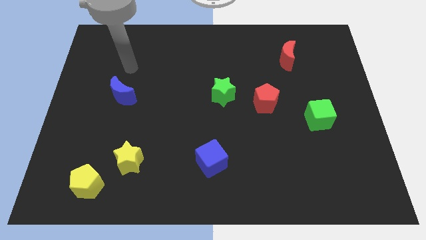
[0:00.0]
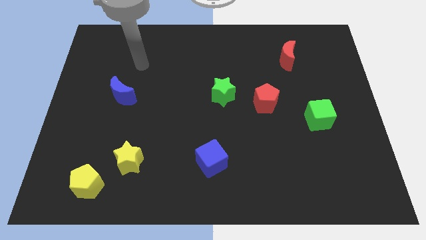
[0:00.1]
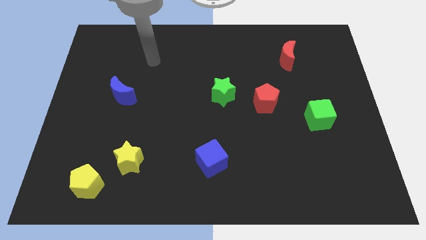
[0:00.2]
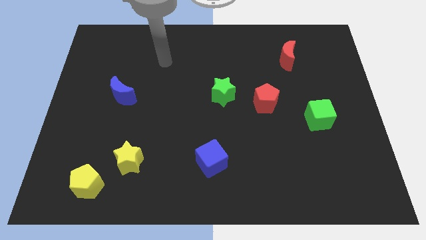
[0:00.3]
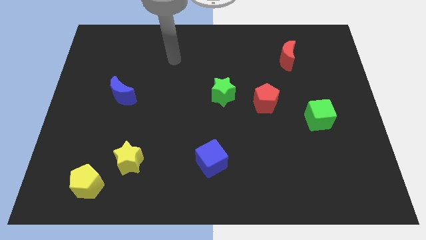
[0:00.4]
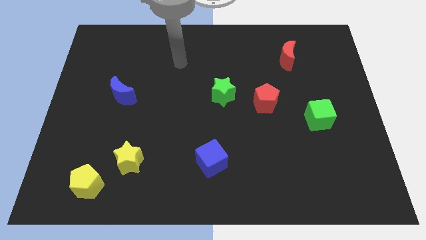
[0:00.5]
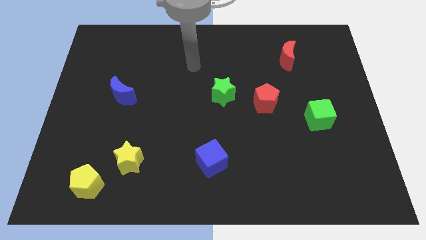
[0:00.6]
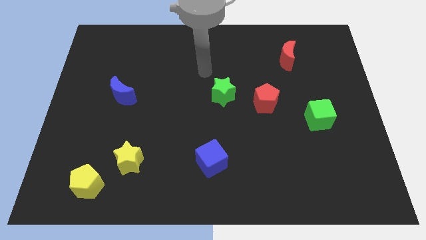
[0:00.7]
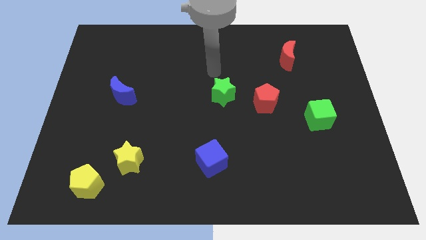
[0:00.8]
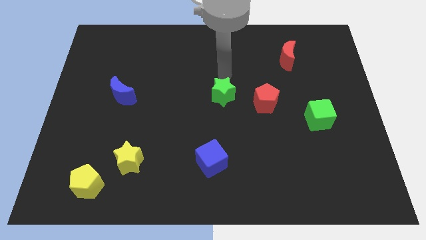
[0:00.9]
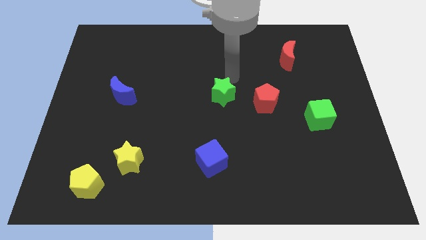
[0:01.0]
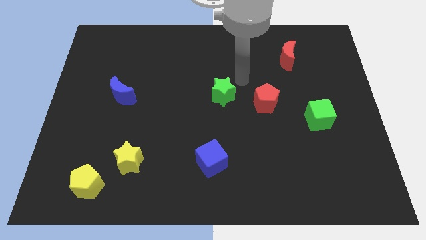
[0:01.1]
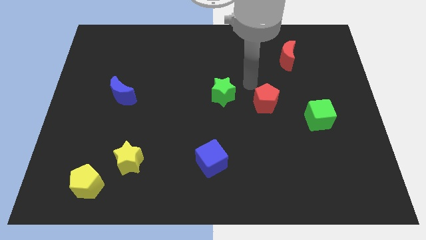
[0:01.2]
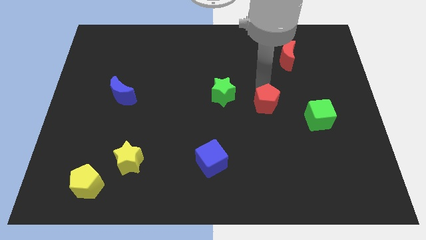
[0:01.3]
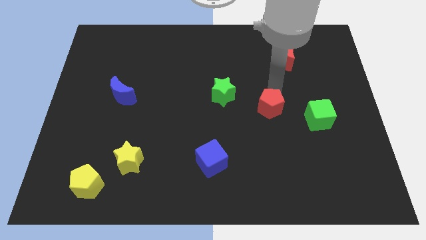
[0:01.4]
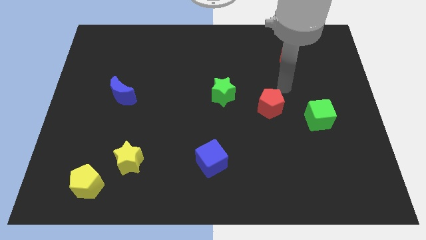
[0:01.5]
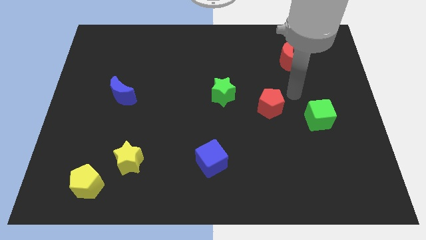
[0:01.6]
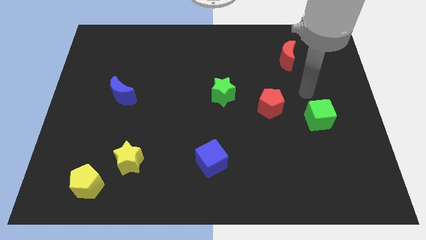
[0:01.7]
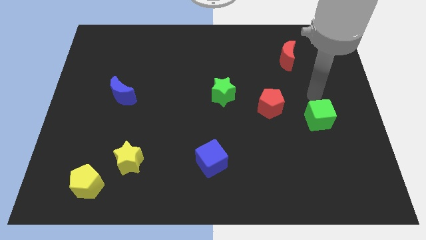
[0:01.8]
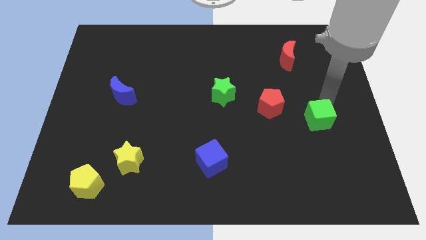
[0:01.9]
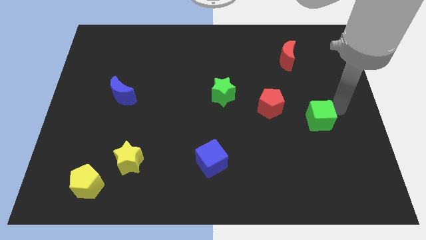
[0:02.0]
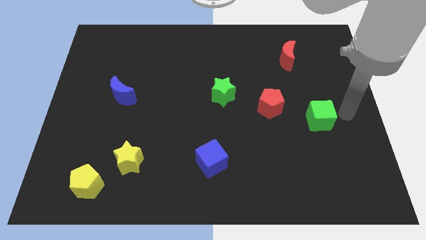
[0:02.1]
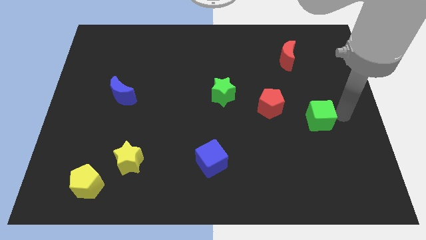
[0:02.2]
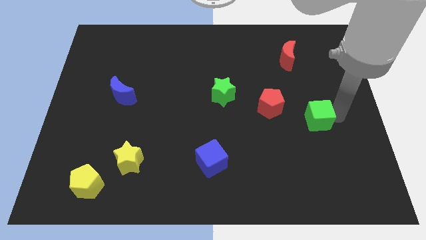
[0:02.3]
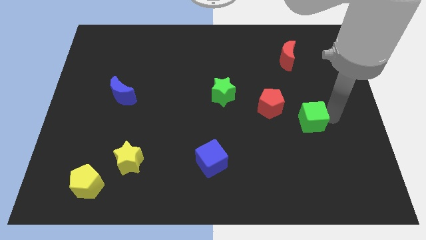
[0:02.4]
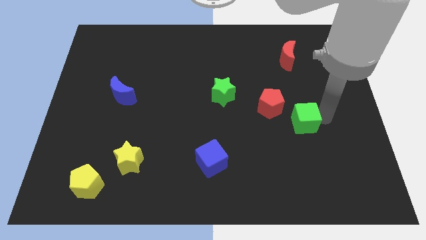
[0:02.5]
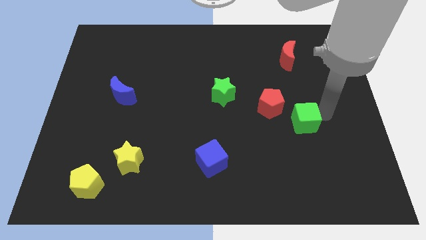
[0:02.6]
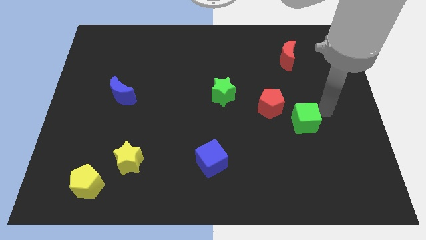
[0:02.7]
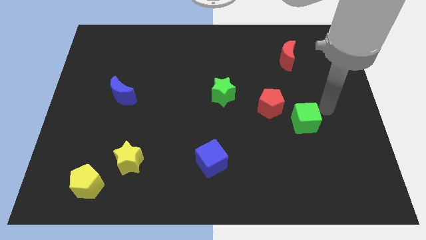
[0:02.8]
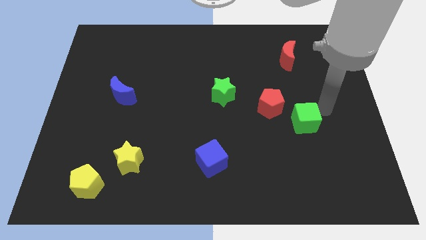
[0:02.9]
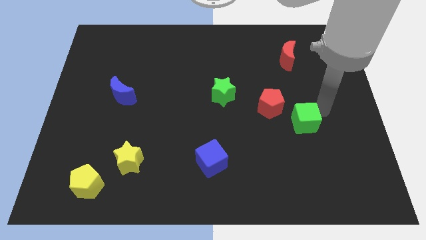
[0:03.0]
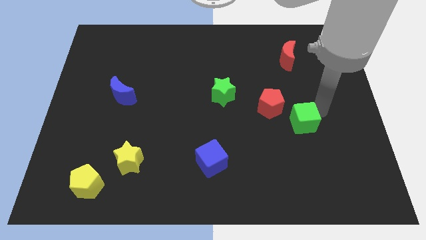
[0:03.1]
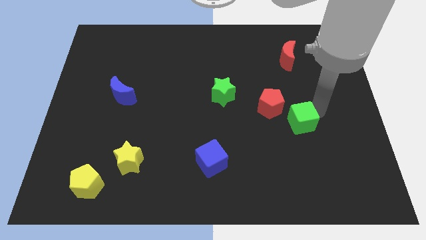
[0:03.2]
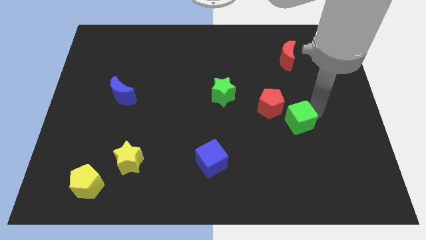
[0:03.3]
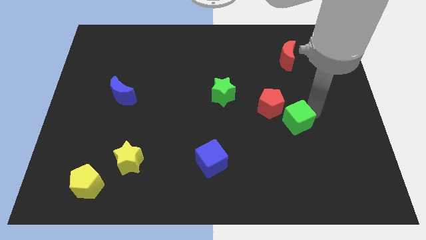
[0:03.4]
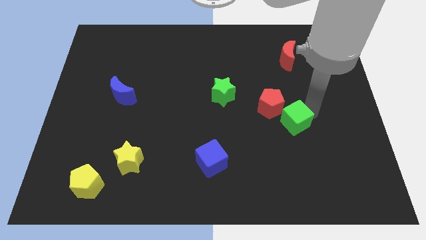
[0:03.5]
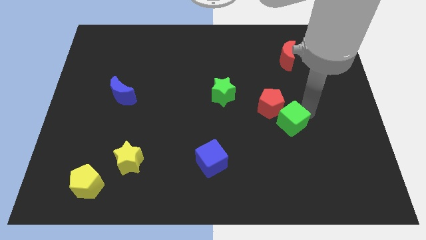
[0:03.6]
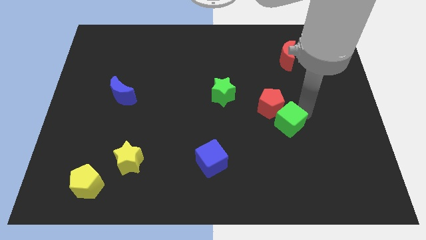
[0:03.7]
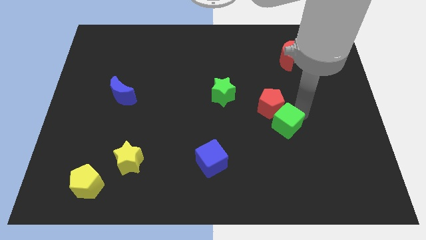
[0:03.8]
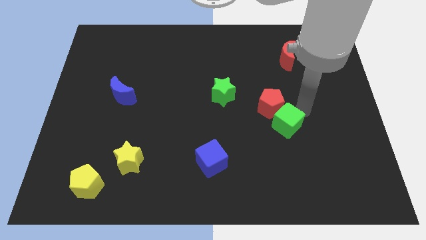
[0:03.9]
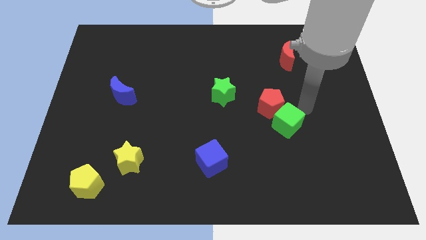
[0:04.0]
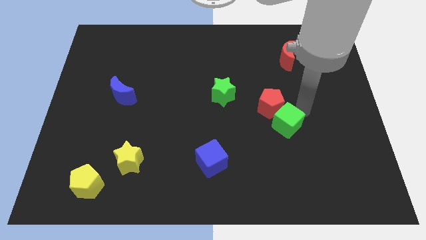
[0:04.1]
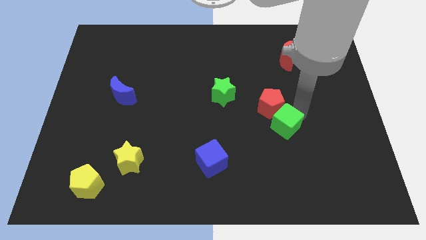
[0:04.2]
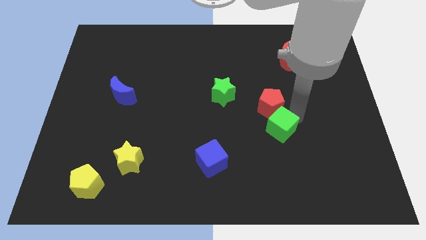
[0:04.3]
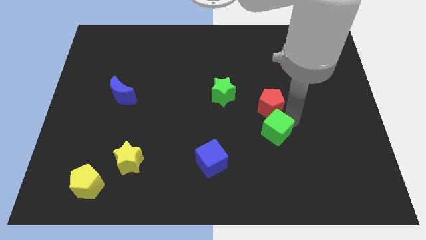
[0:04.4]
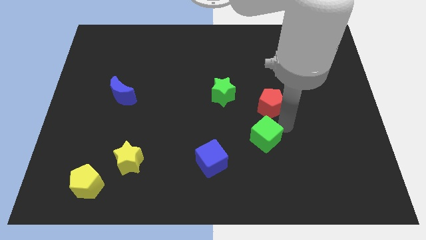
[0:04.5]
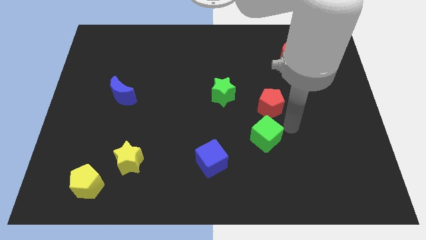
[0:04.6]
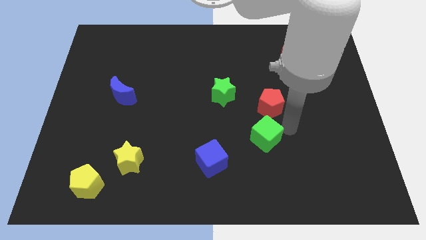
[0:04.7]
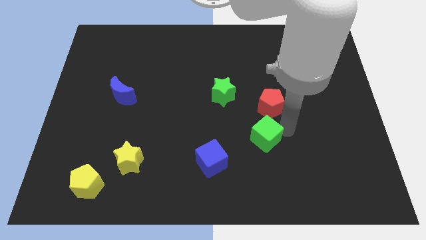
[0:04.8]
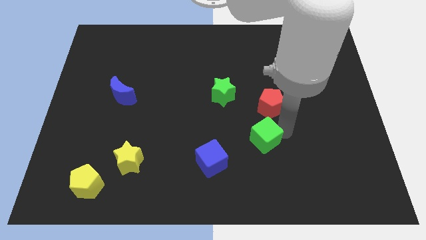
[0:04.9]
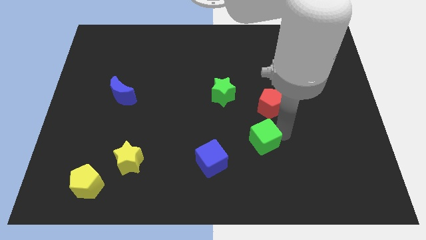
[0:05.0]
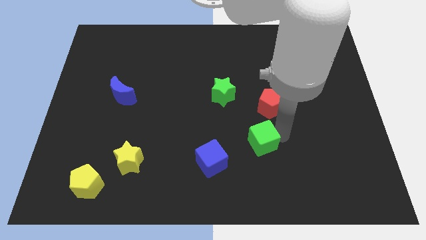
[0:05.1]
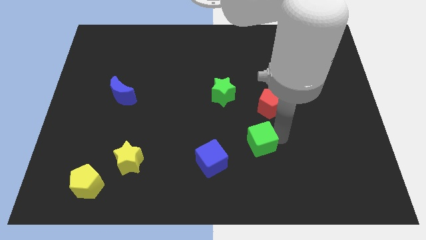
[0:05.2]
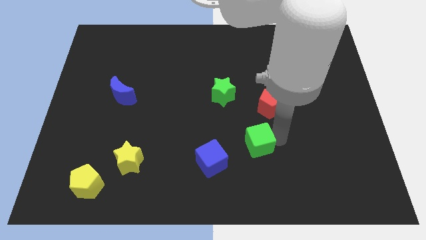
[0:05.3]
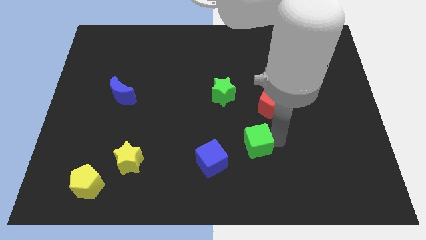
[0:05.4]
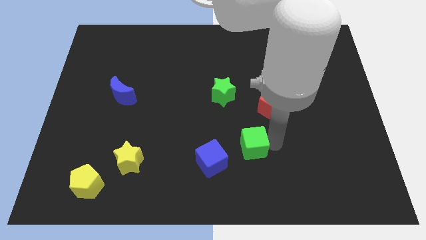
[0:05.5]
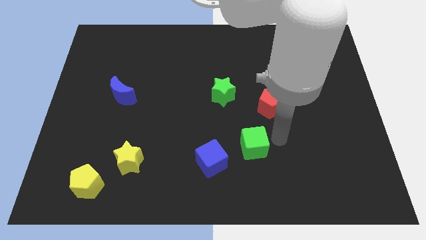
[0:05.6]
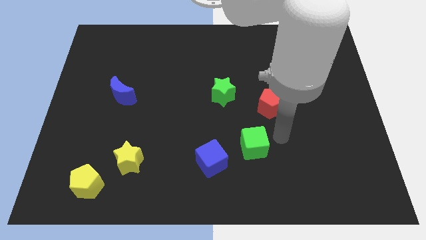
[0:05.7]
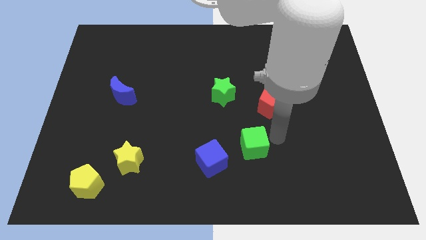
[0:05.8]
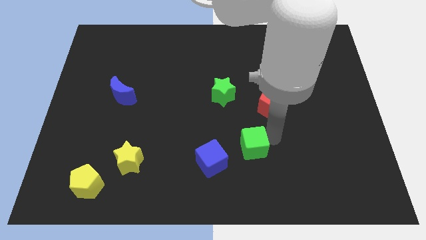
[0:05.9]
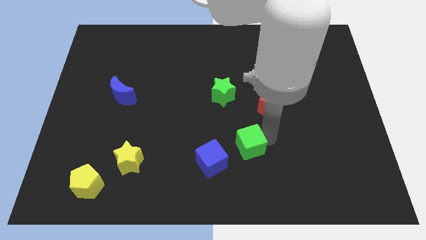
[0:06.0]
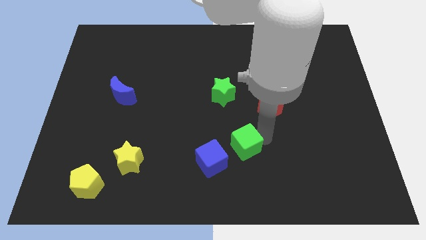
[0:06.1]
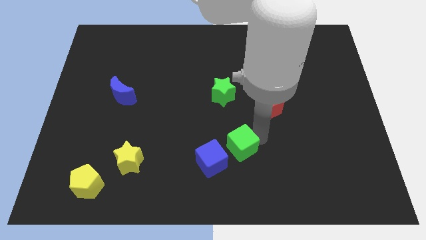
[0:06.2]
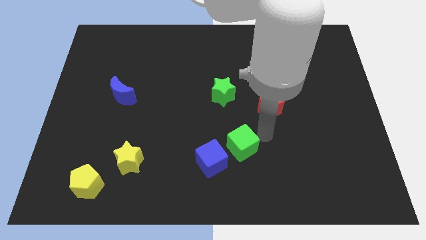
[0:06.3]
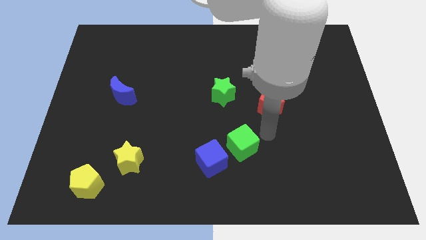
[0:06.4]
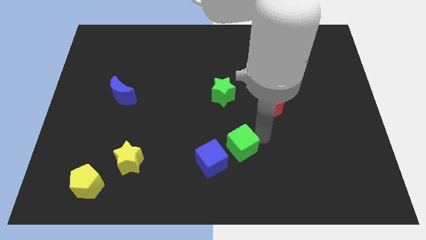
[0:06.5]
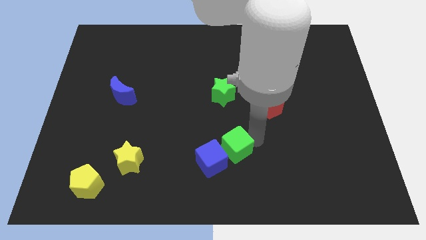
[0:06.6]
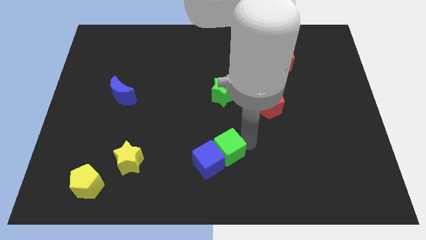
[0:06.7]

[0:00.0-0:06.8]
slide the green cube towards the blue cube
